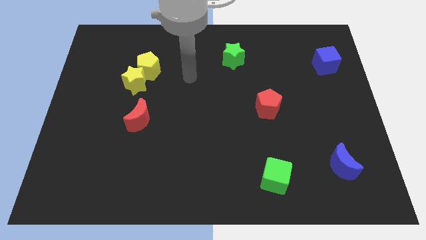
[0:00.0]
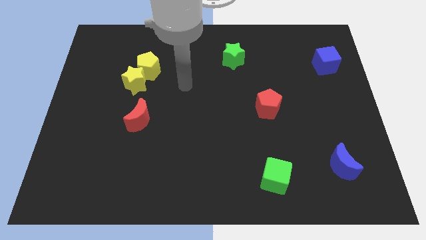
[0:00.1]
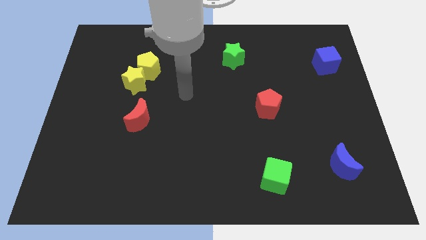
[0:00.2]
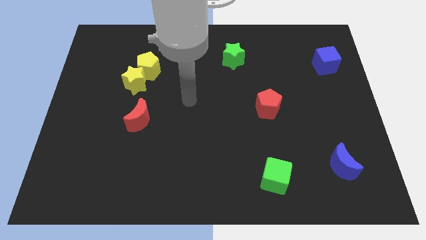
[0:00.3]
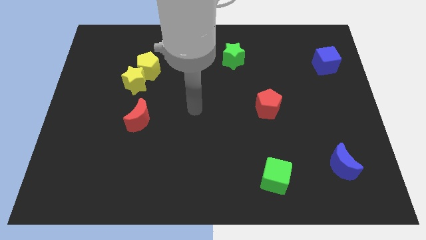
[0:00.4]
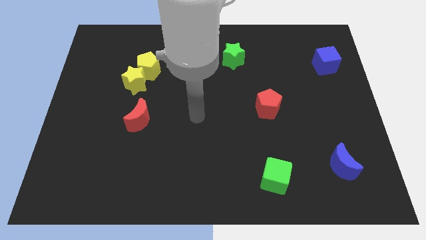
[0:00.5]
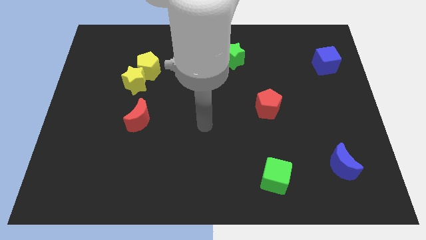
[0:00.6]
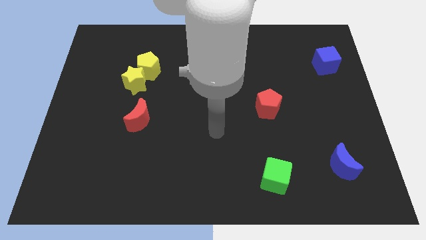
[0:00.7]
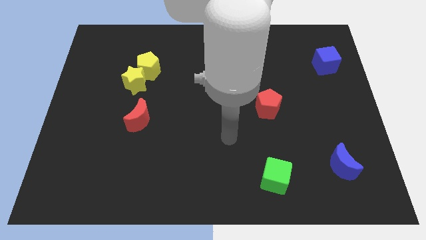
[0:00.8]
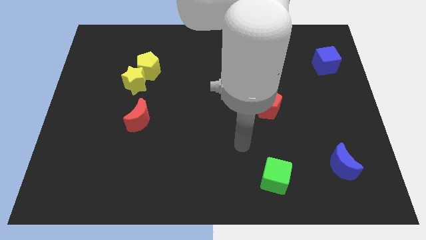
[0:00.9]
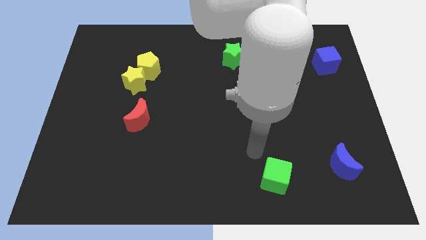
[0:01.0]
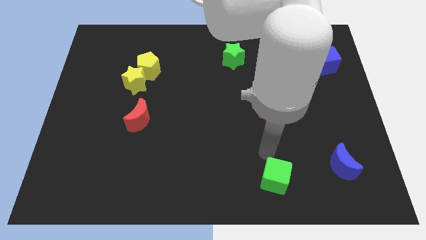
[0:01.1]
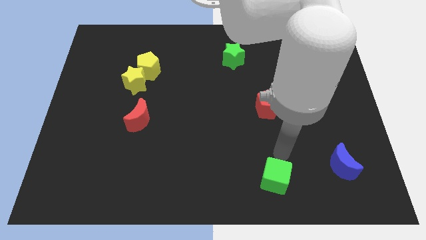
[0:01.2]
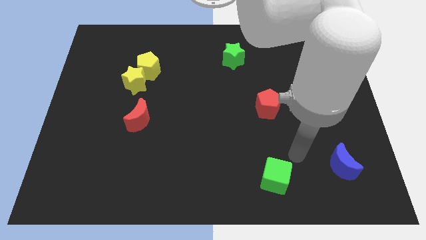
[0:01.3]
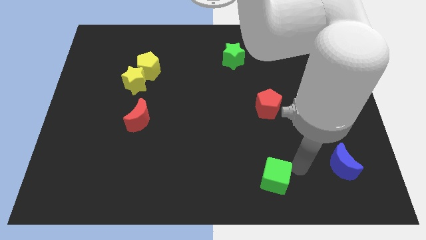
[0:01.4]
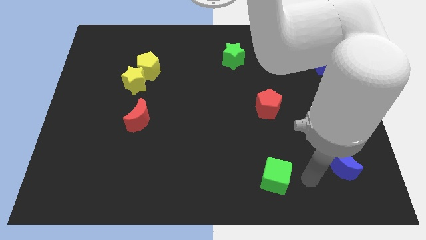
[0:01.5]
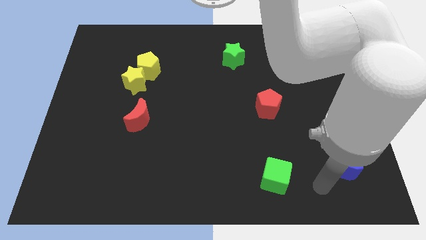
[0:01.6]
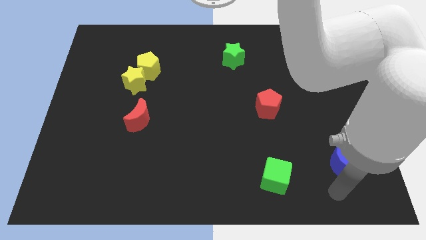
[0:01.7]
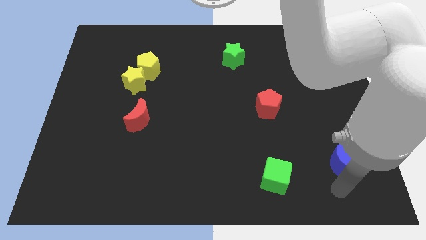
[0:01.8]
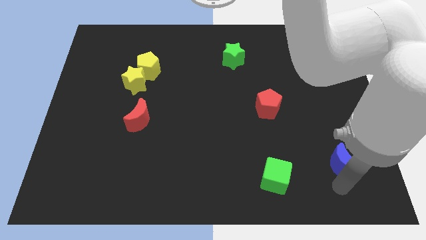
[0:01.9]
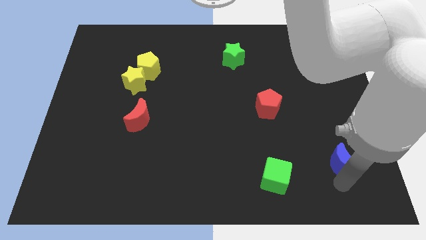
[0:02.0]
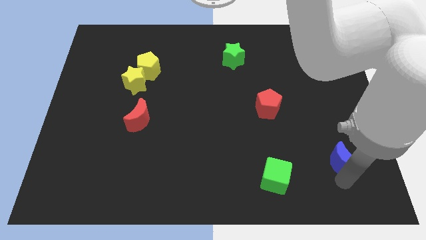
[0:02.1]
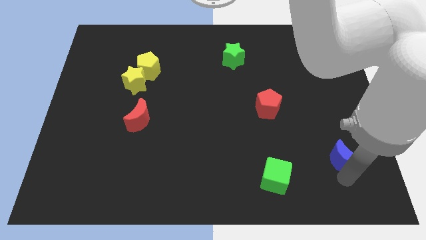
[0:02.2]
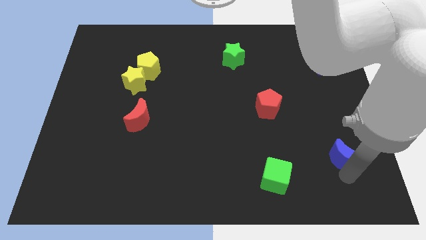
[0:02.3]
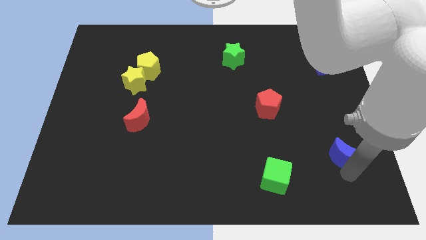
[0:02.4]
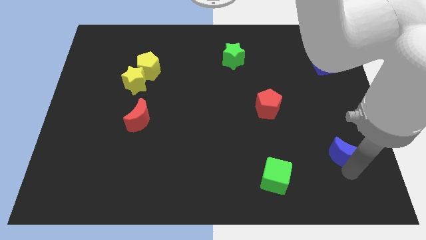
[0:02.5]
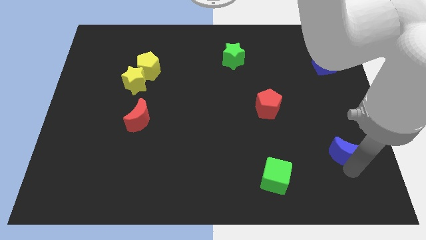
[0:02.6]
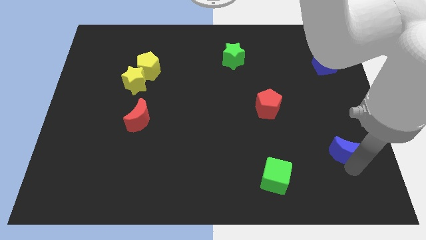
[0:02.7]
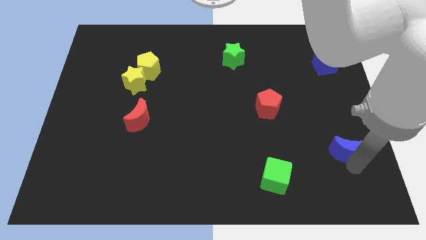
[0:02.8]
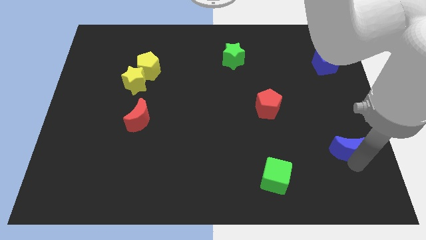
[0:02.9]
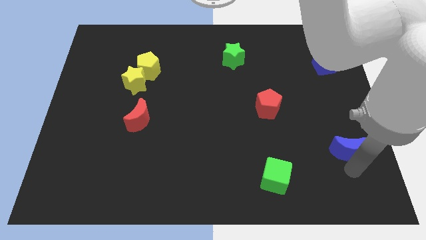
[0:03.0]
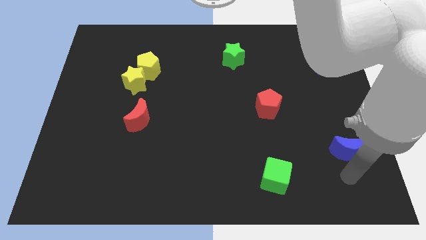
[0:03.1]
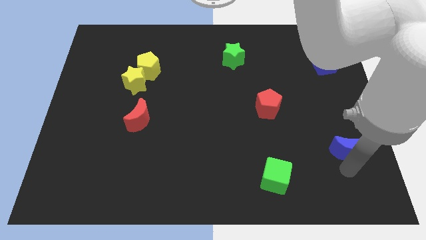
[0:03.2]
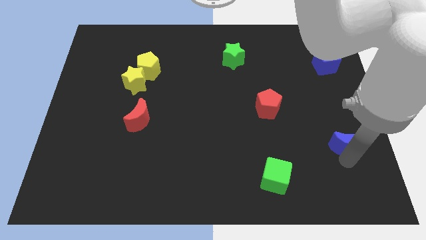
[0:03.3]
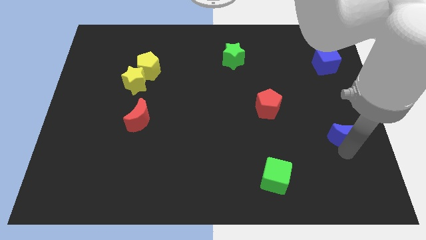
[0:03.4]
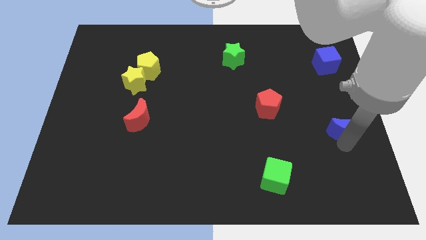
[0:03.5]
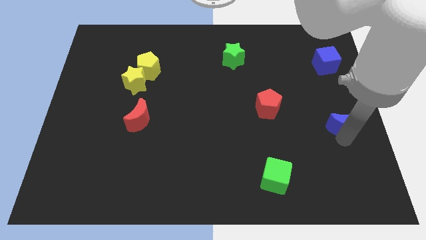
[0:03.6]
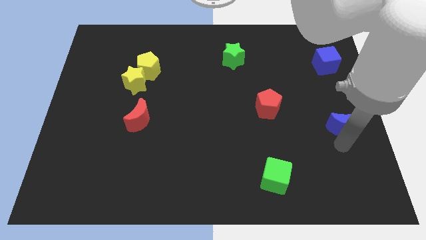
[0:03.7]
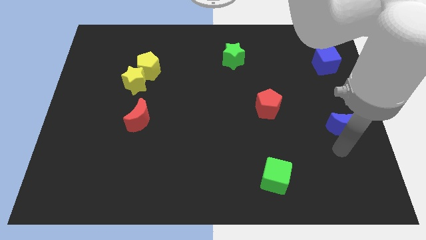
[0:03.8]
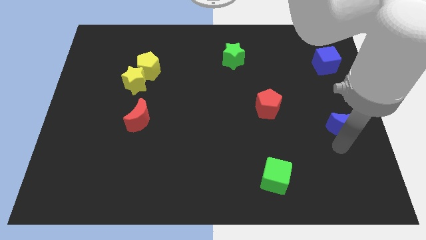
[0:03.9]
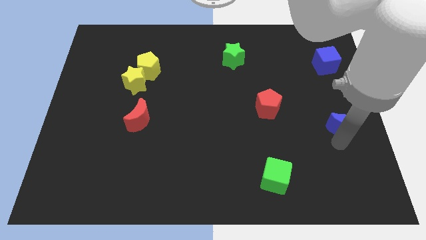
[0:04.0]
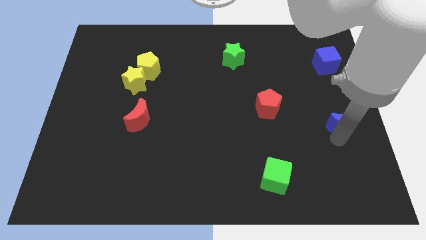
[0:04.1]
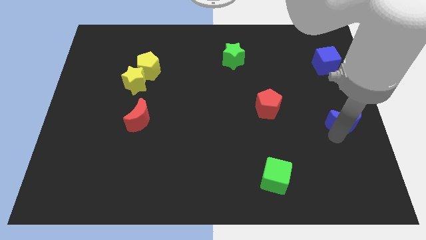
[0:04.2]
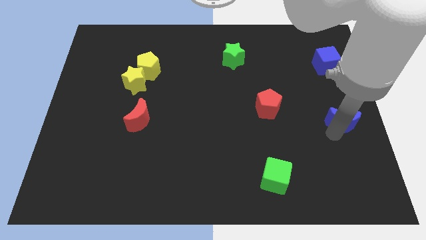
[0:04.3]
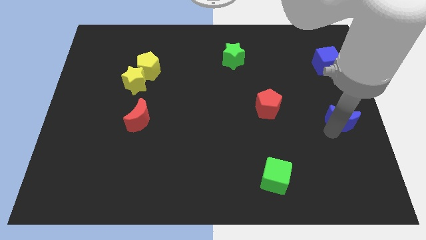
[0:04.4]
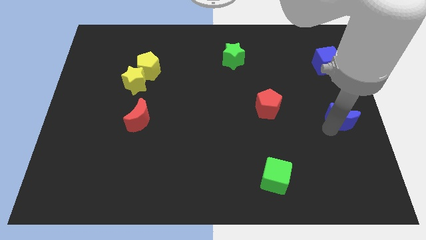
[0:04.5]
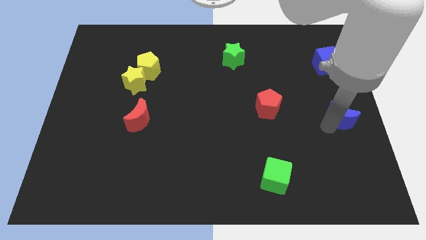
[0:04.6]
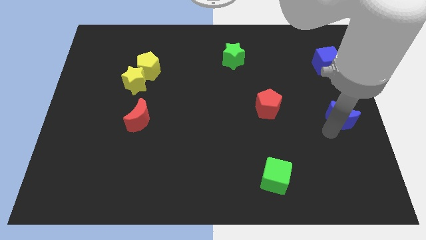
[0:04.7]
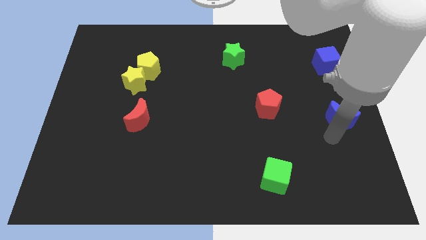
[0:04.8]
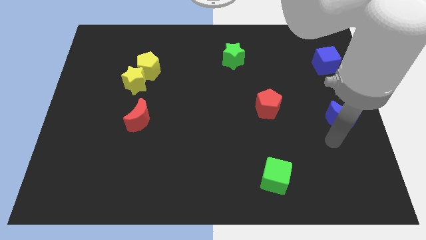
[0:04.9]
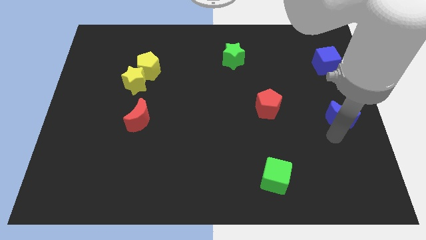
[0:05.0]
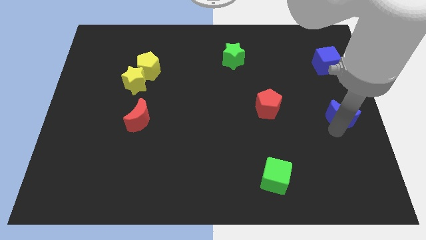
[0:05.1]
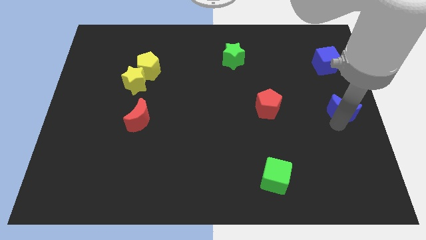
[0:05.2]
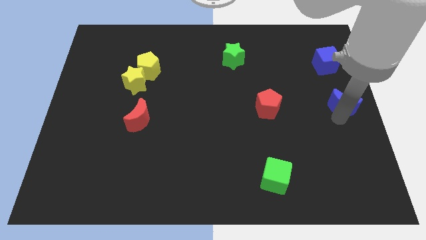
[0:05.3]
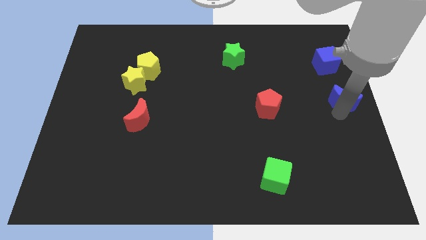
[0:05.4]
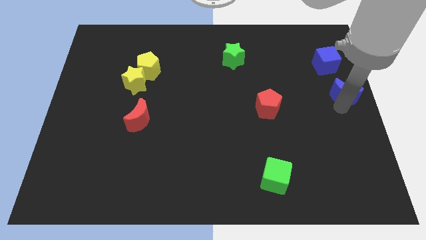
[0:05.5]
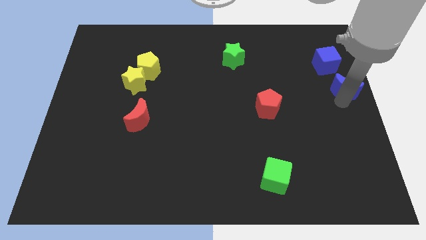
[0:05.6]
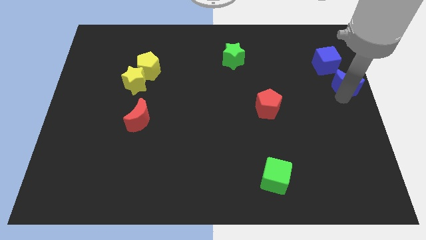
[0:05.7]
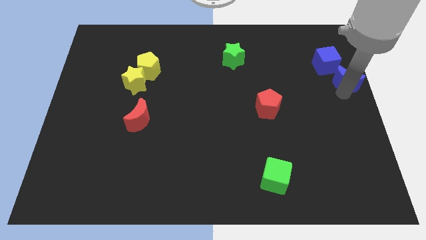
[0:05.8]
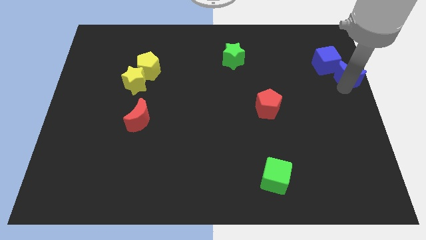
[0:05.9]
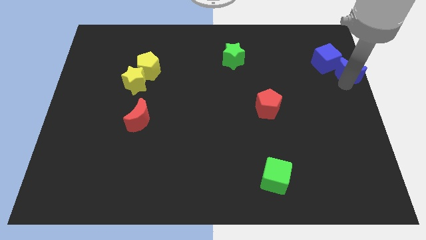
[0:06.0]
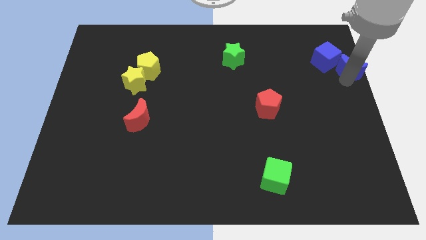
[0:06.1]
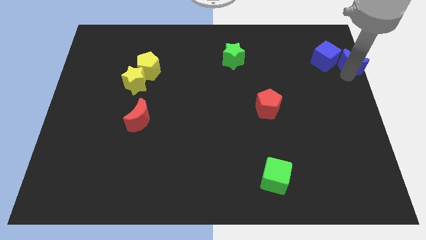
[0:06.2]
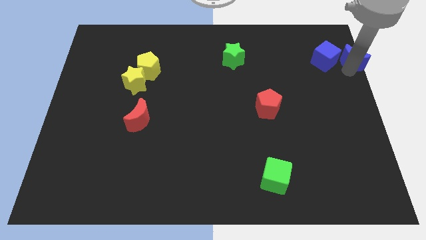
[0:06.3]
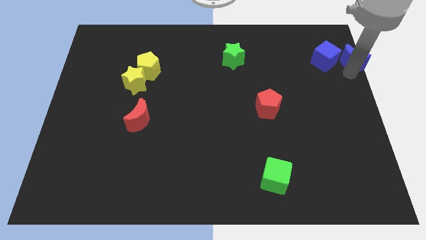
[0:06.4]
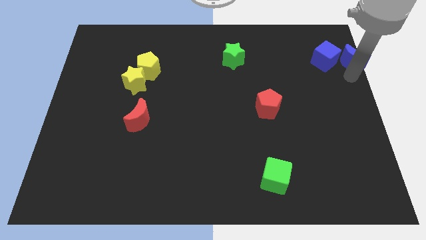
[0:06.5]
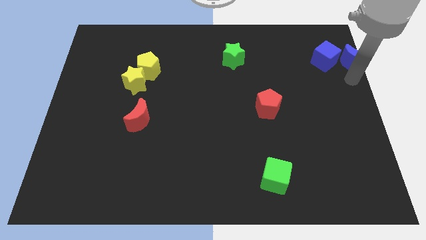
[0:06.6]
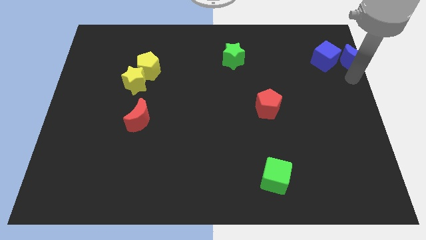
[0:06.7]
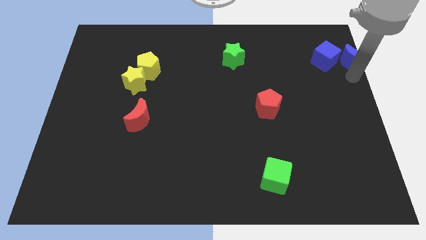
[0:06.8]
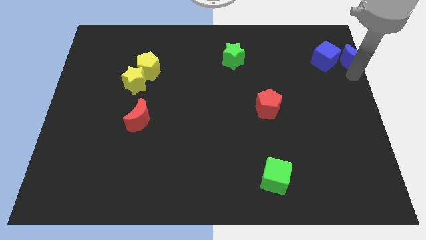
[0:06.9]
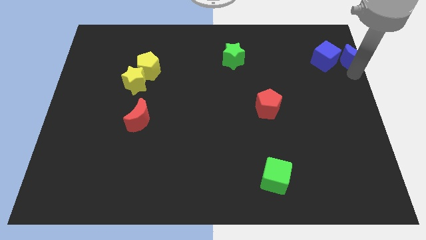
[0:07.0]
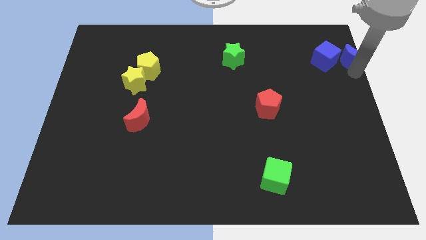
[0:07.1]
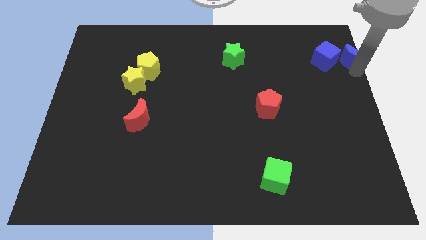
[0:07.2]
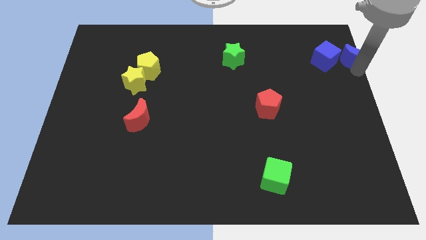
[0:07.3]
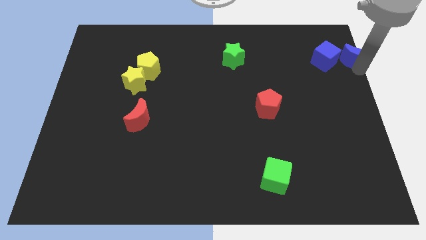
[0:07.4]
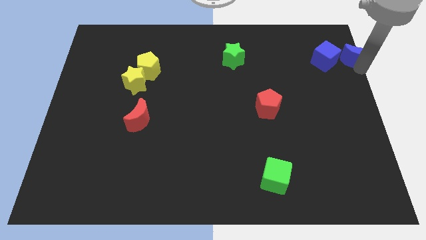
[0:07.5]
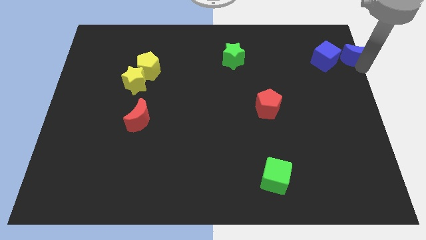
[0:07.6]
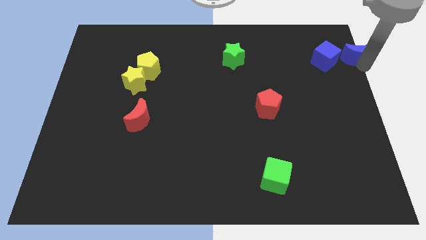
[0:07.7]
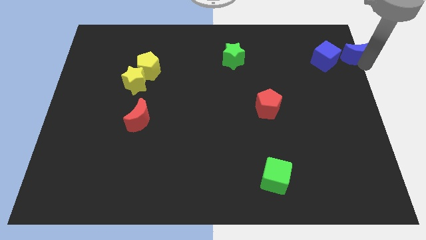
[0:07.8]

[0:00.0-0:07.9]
move the blue moon to the top right corner
